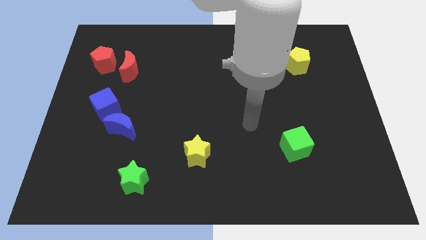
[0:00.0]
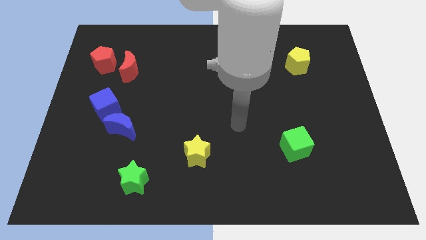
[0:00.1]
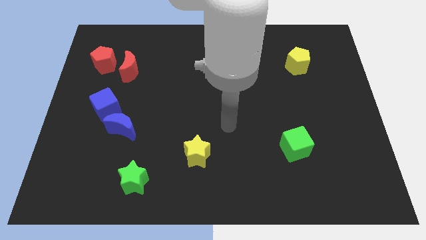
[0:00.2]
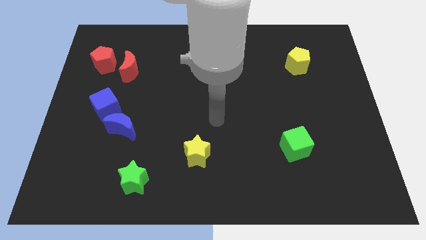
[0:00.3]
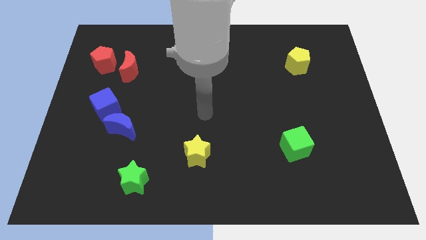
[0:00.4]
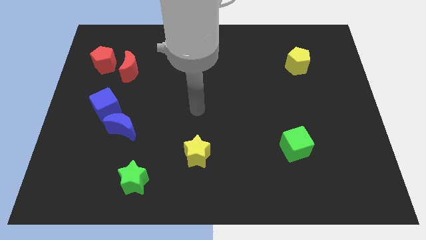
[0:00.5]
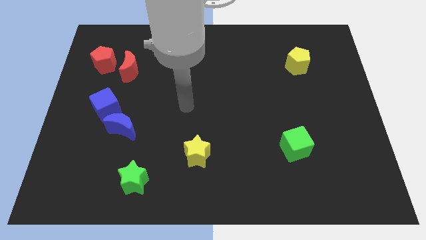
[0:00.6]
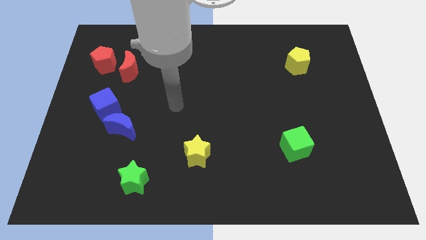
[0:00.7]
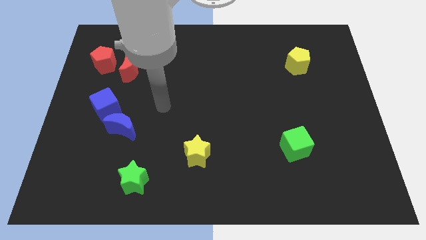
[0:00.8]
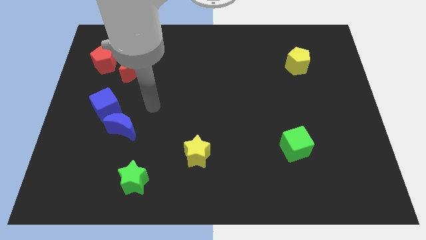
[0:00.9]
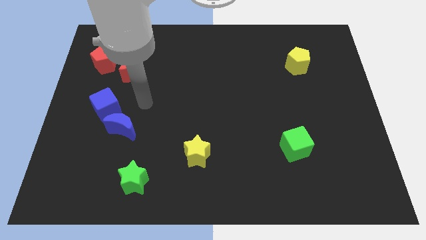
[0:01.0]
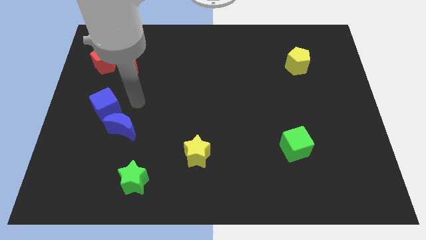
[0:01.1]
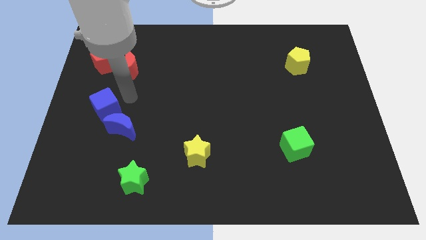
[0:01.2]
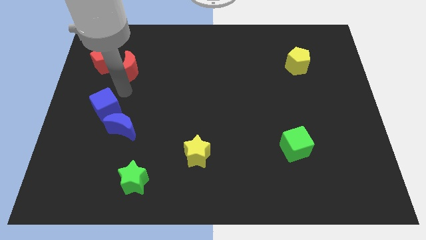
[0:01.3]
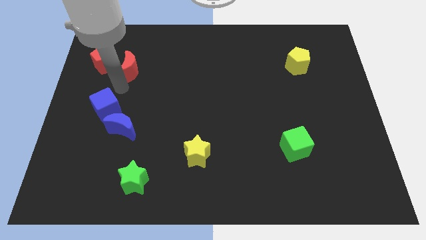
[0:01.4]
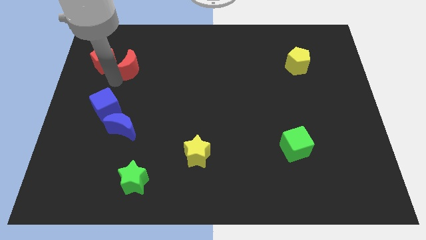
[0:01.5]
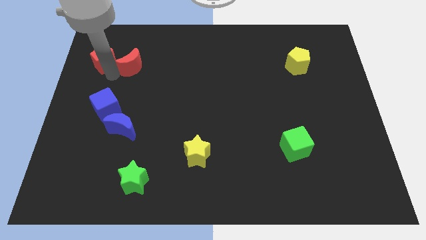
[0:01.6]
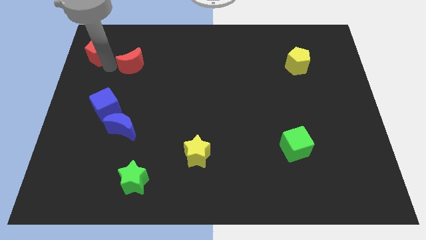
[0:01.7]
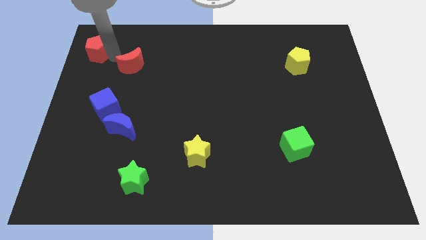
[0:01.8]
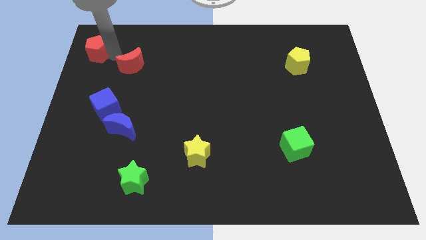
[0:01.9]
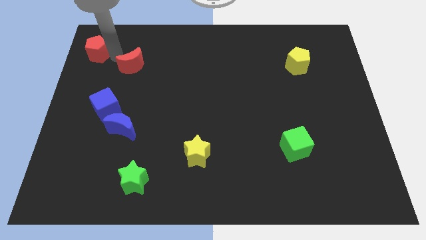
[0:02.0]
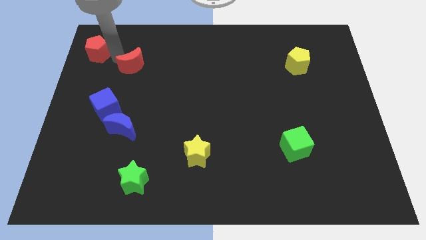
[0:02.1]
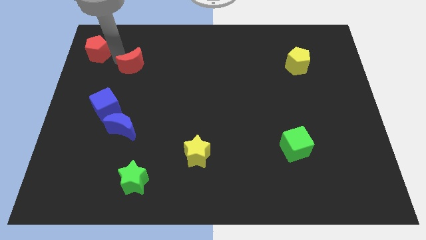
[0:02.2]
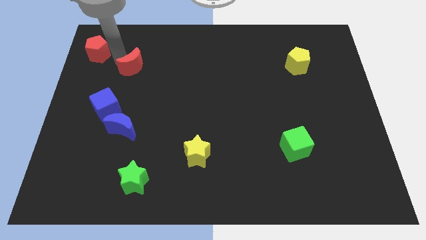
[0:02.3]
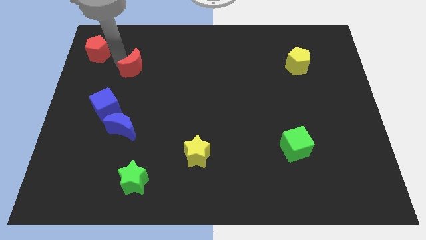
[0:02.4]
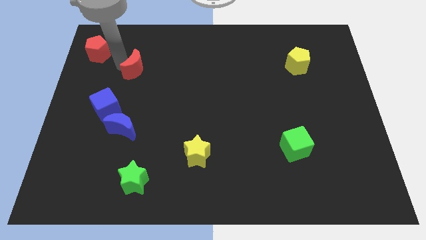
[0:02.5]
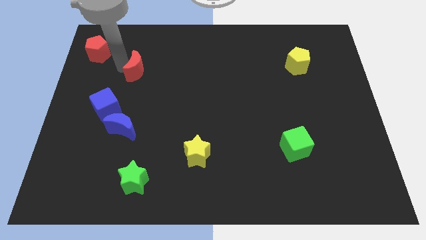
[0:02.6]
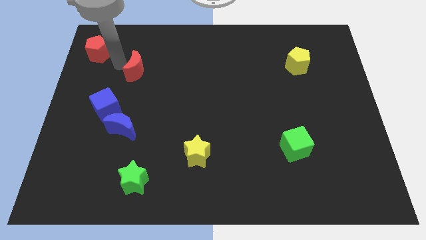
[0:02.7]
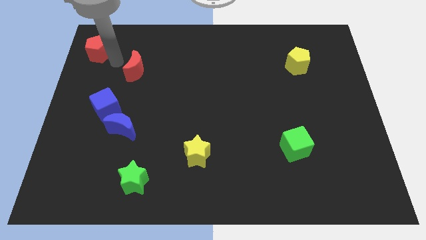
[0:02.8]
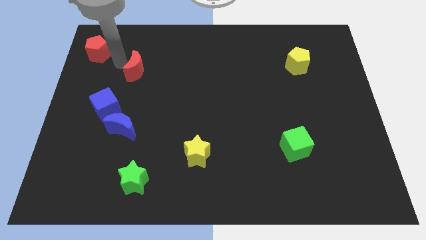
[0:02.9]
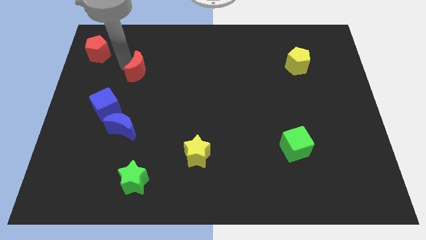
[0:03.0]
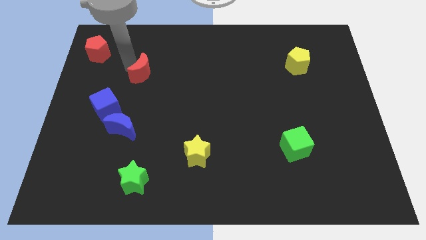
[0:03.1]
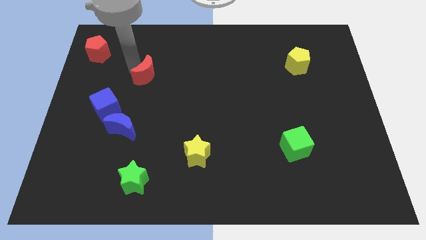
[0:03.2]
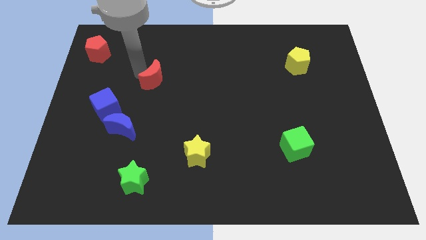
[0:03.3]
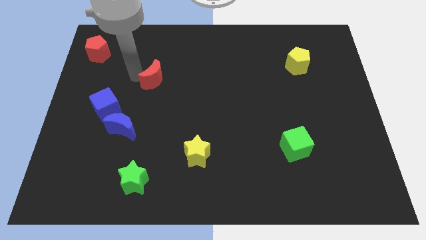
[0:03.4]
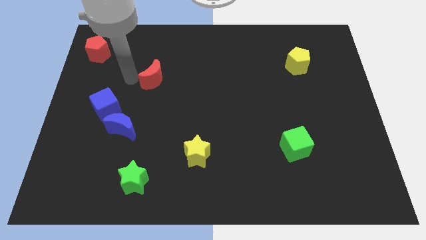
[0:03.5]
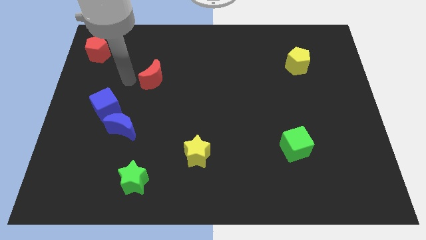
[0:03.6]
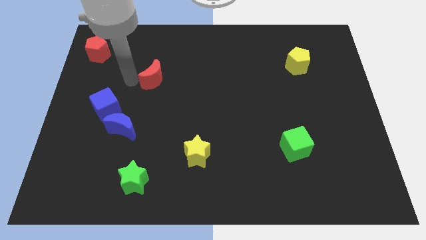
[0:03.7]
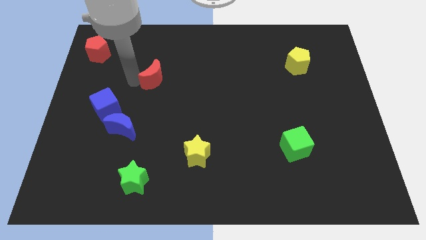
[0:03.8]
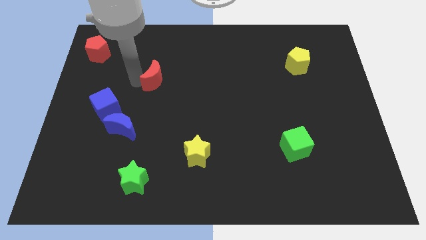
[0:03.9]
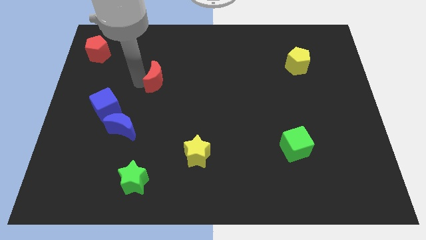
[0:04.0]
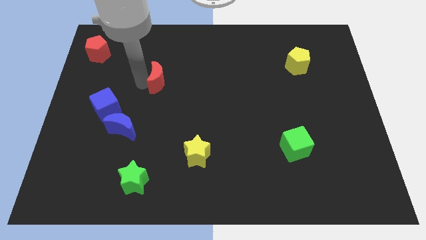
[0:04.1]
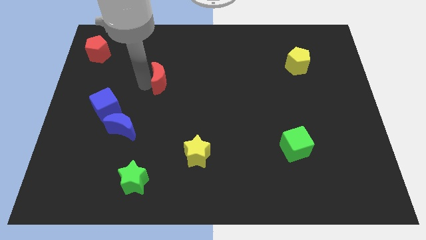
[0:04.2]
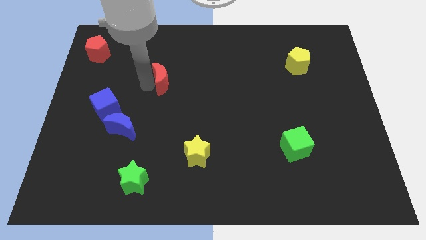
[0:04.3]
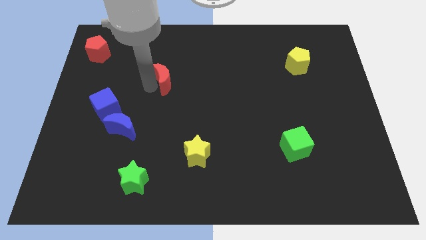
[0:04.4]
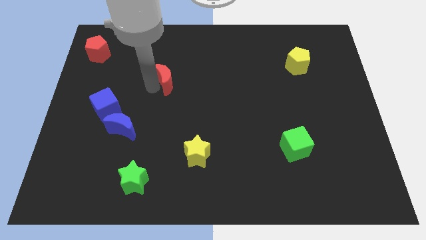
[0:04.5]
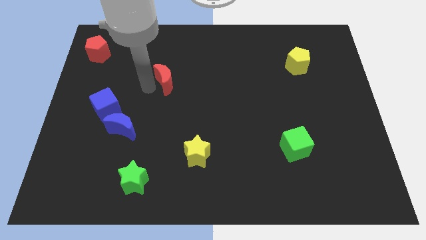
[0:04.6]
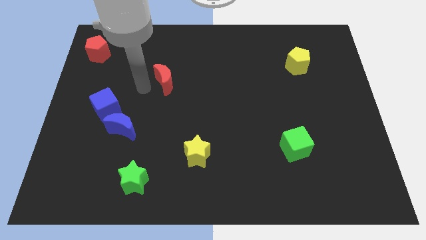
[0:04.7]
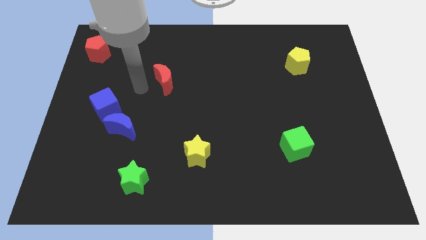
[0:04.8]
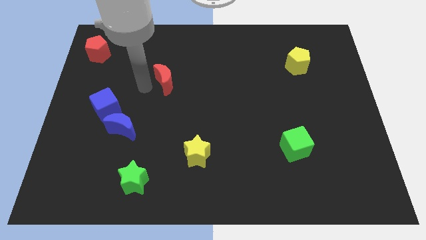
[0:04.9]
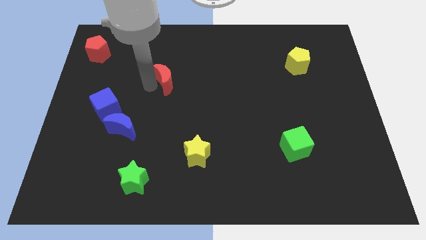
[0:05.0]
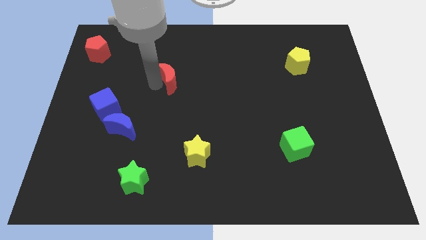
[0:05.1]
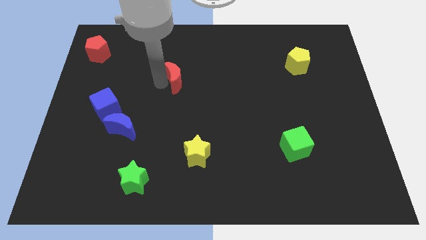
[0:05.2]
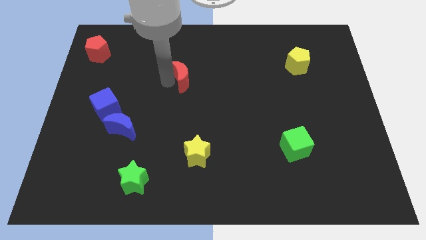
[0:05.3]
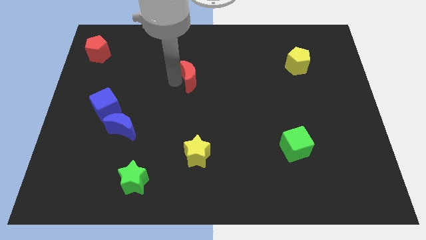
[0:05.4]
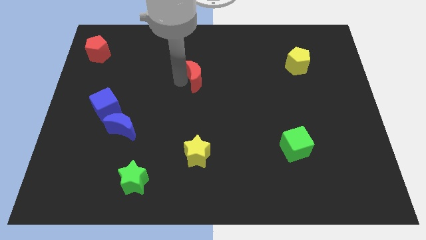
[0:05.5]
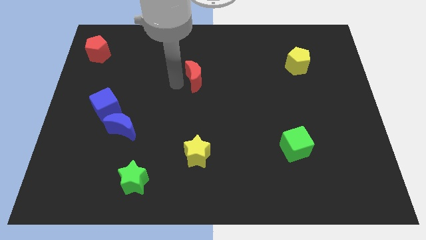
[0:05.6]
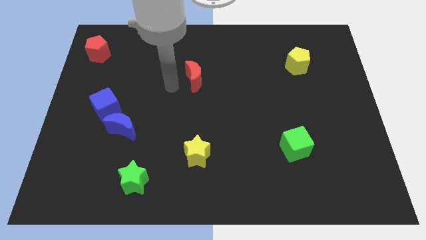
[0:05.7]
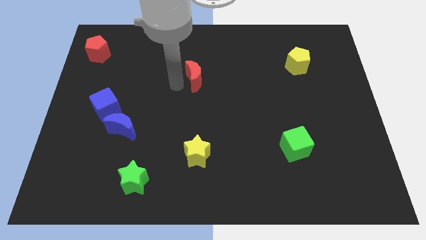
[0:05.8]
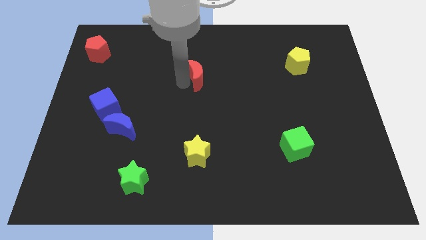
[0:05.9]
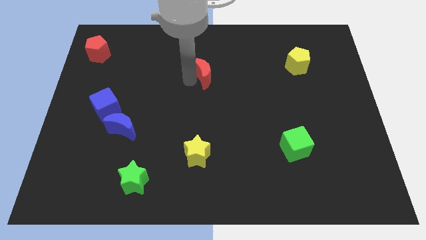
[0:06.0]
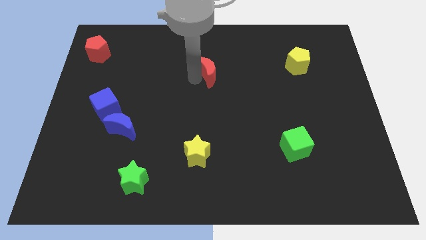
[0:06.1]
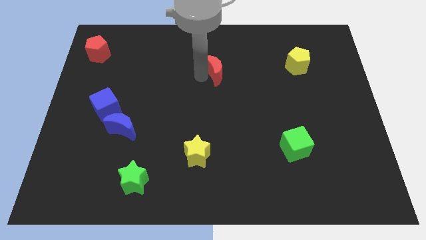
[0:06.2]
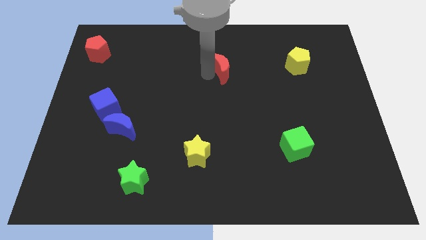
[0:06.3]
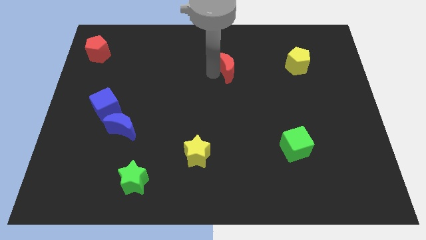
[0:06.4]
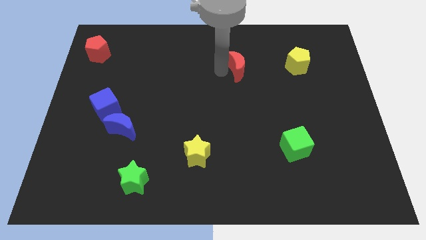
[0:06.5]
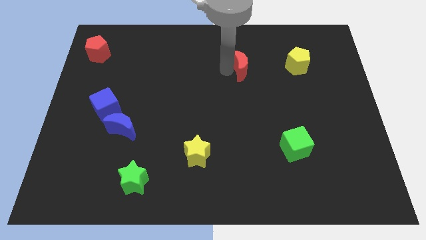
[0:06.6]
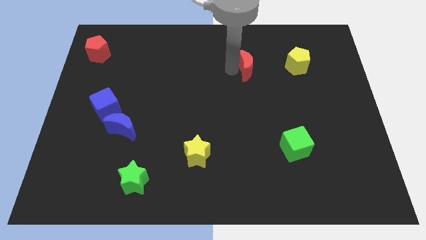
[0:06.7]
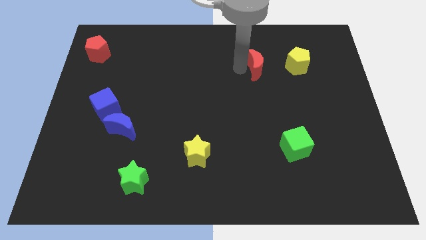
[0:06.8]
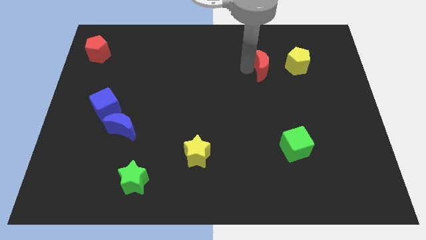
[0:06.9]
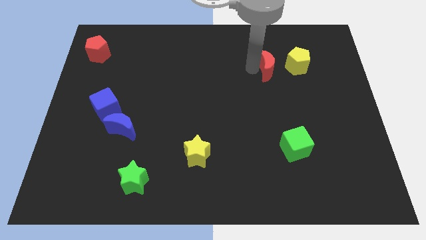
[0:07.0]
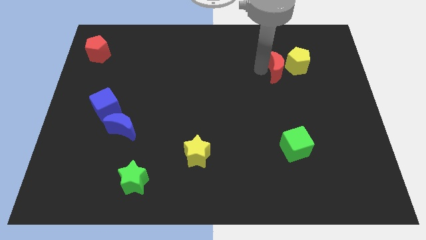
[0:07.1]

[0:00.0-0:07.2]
slide the red moon to the yellow pentagon
